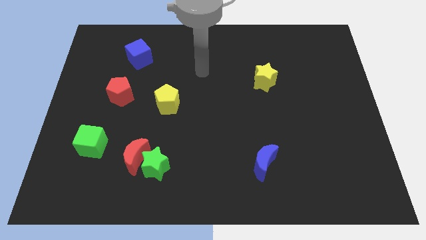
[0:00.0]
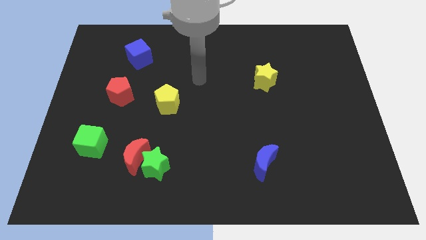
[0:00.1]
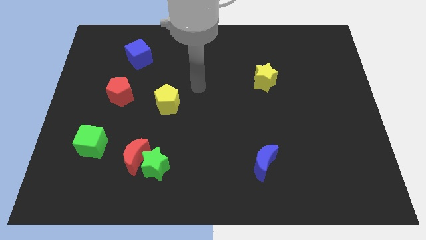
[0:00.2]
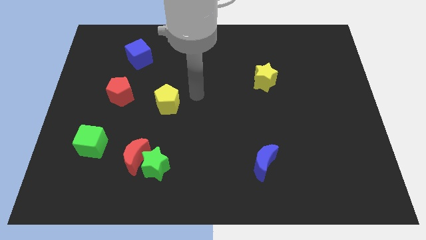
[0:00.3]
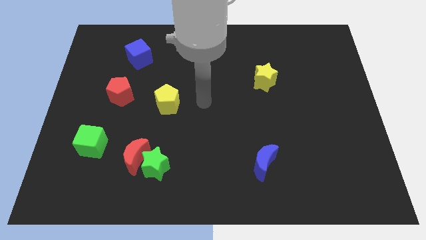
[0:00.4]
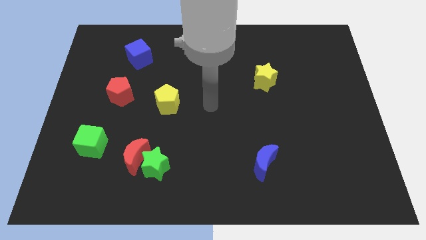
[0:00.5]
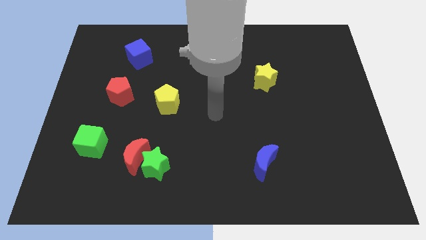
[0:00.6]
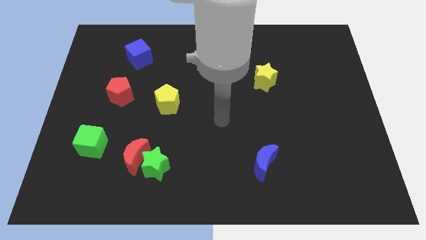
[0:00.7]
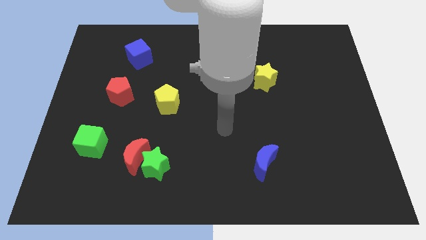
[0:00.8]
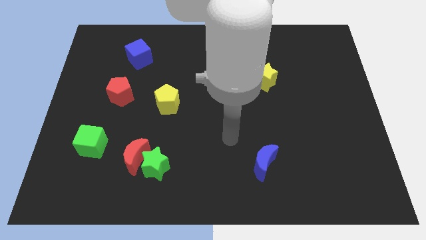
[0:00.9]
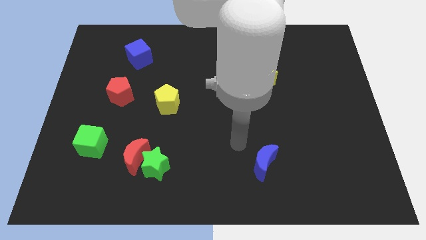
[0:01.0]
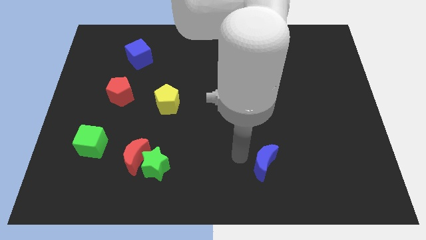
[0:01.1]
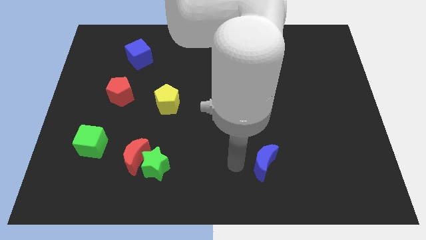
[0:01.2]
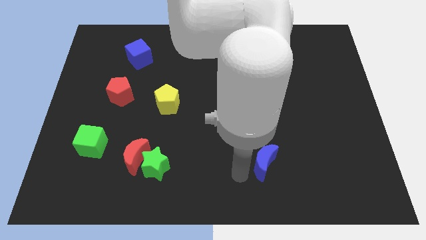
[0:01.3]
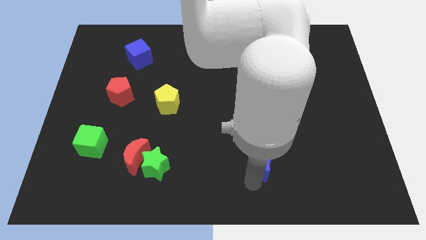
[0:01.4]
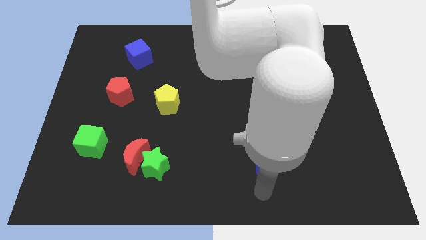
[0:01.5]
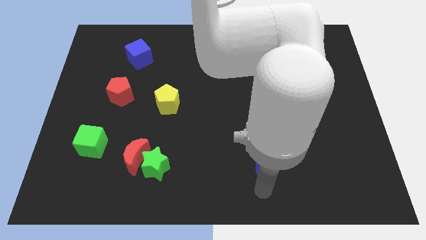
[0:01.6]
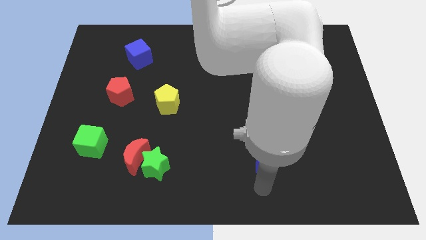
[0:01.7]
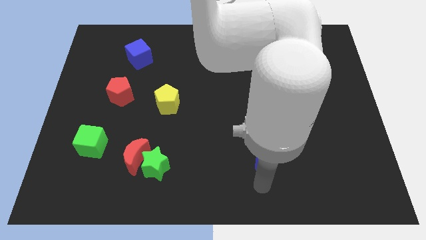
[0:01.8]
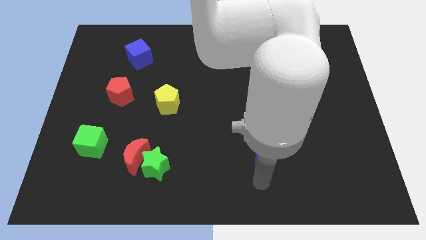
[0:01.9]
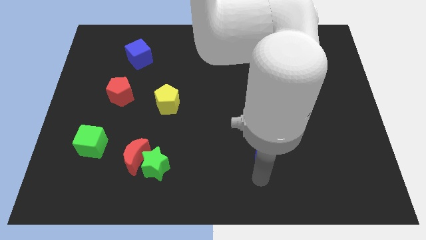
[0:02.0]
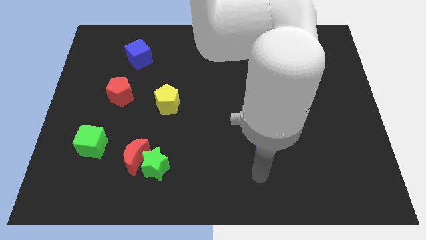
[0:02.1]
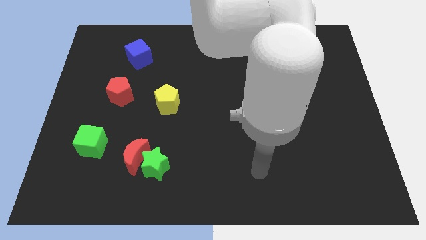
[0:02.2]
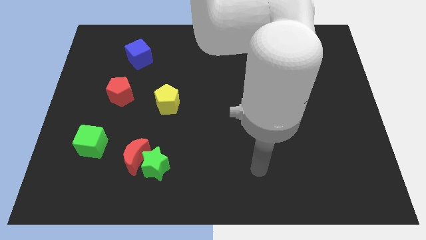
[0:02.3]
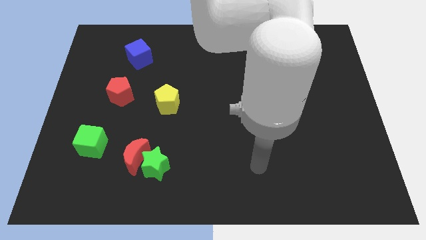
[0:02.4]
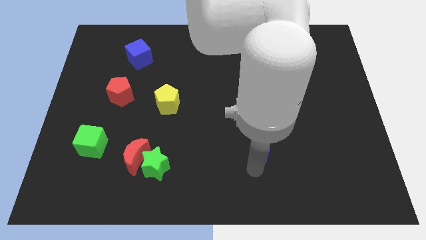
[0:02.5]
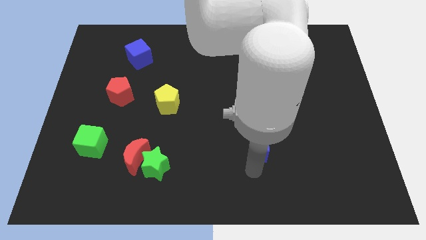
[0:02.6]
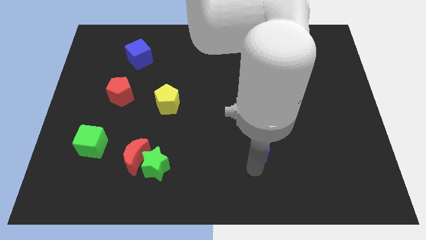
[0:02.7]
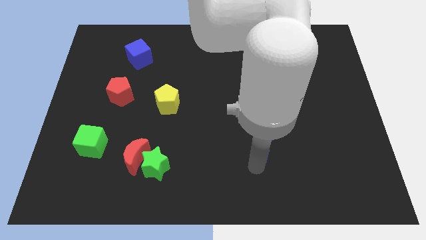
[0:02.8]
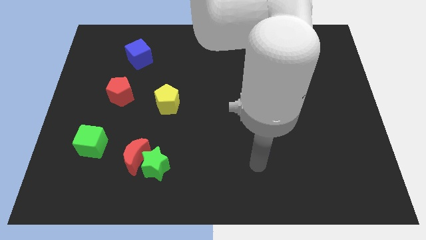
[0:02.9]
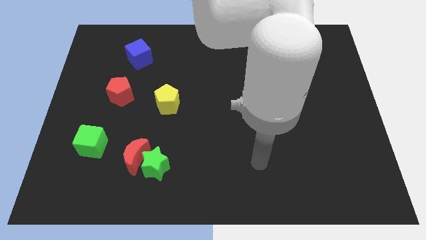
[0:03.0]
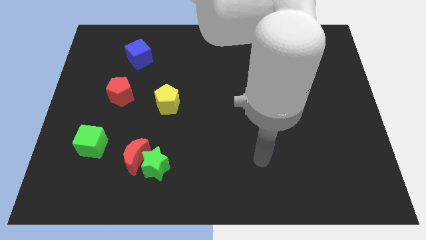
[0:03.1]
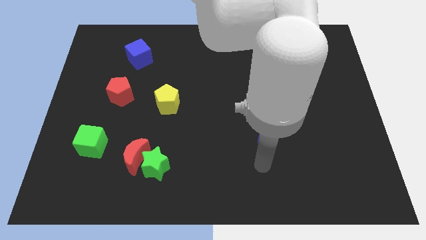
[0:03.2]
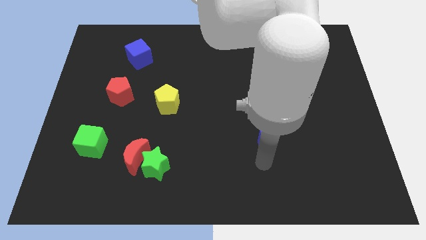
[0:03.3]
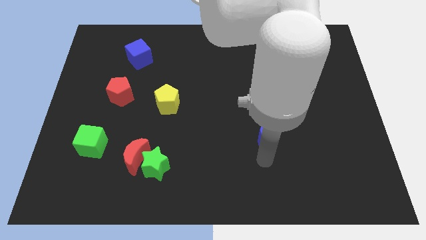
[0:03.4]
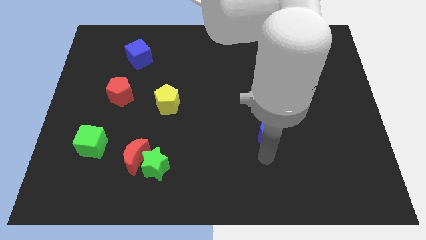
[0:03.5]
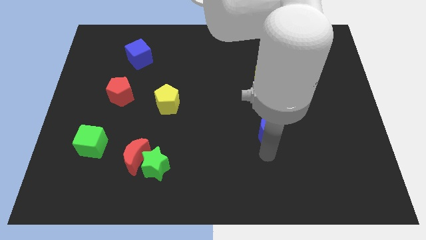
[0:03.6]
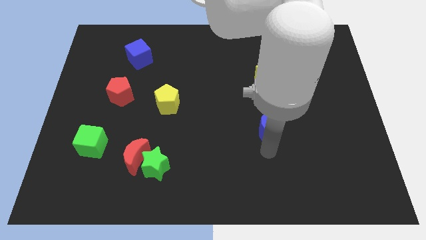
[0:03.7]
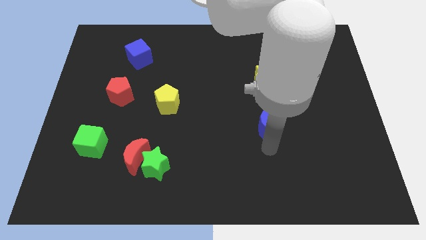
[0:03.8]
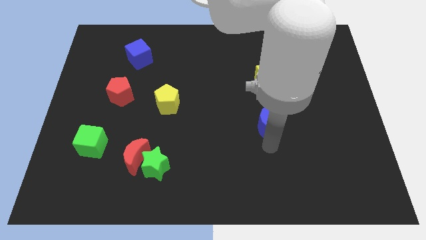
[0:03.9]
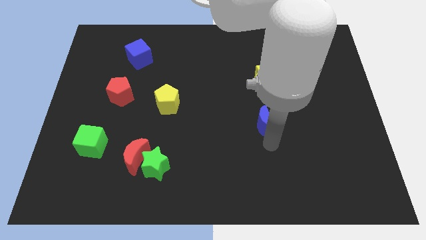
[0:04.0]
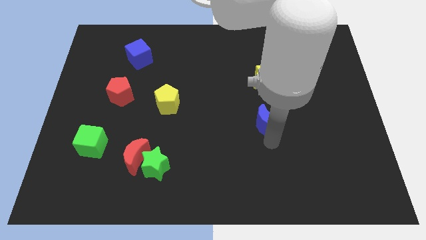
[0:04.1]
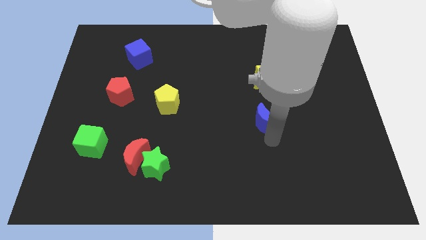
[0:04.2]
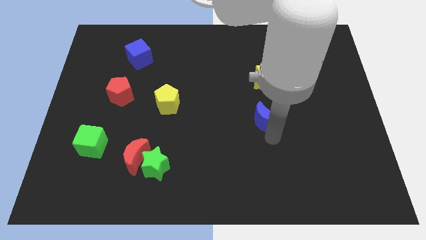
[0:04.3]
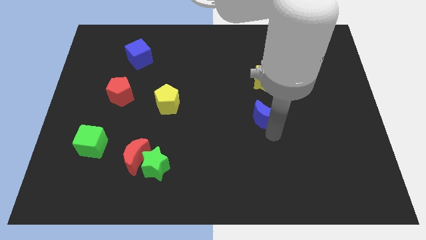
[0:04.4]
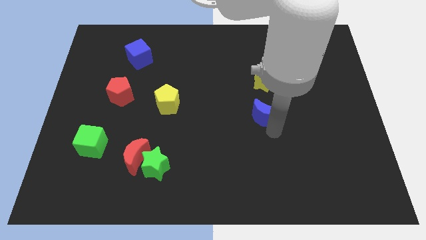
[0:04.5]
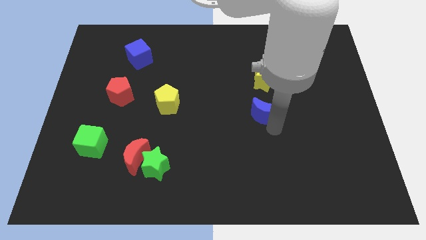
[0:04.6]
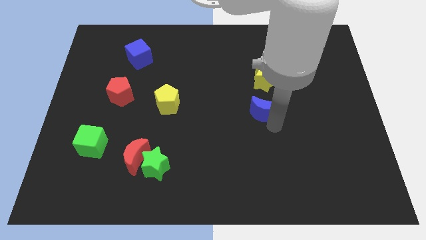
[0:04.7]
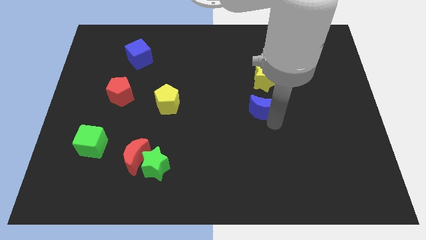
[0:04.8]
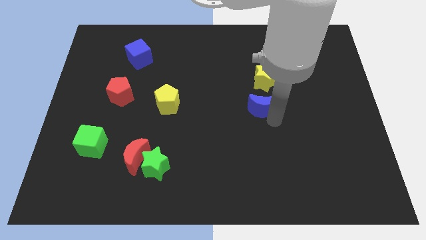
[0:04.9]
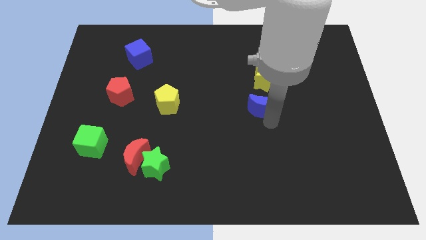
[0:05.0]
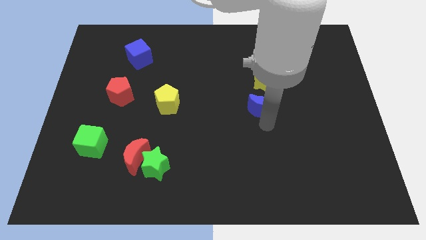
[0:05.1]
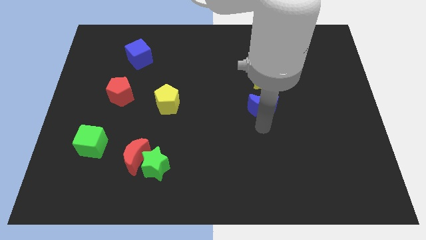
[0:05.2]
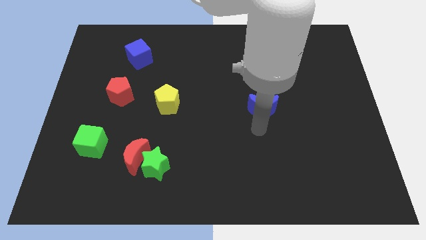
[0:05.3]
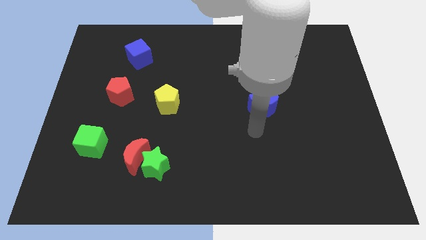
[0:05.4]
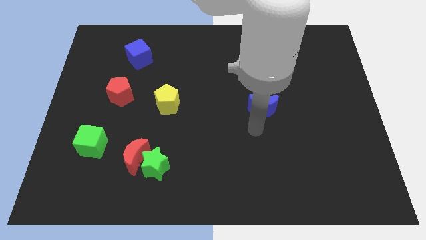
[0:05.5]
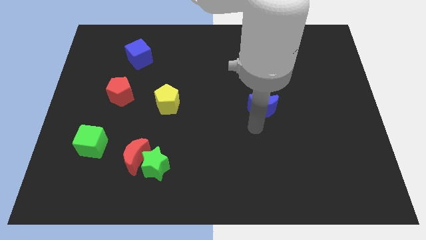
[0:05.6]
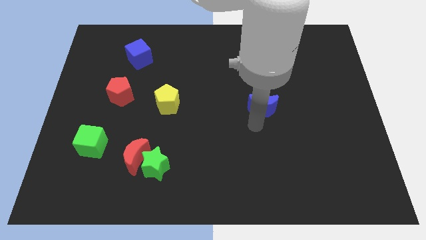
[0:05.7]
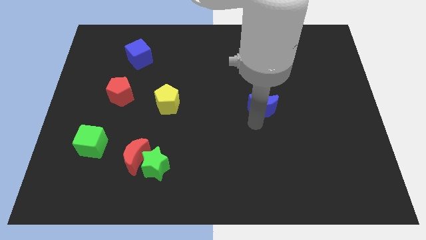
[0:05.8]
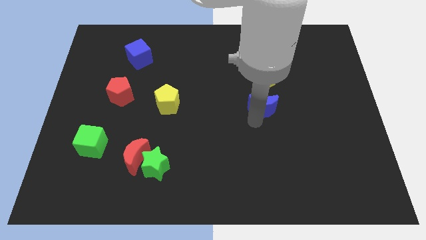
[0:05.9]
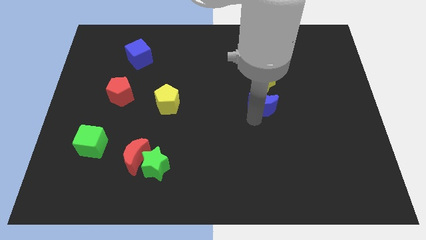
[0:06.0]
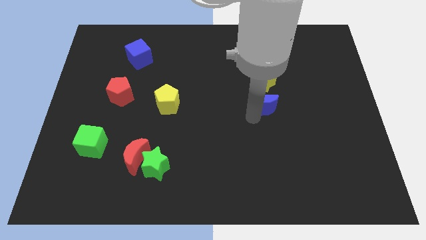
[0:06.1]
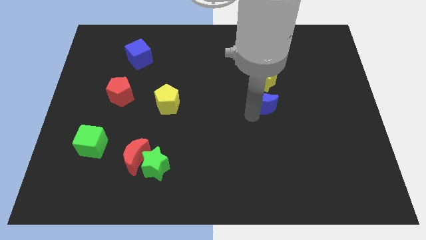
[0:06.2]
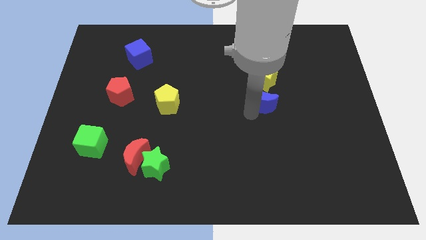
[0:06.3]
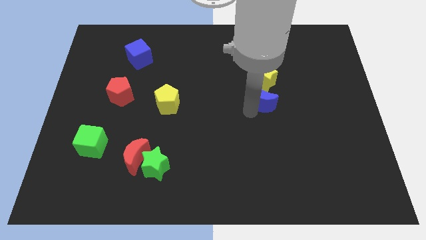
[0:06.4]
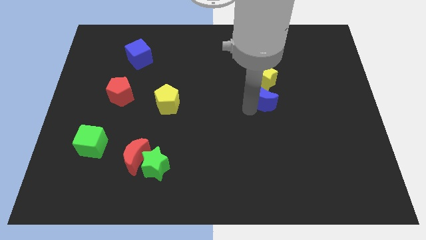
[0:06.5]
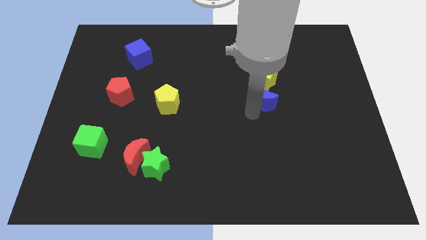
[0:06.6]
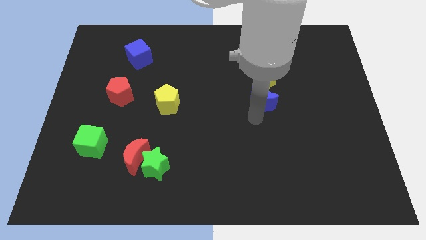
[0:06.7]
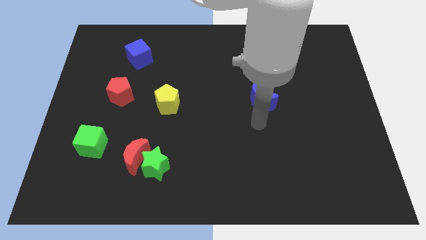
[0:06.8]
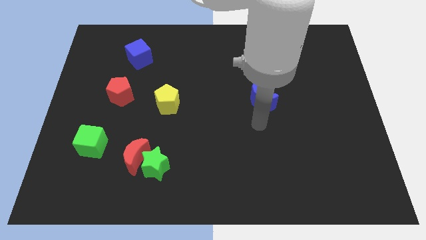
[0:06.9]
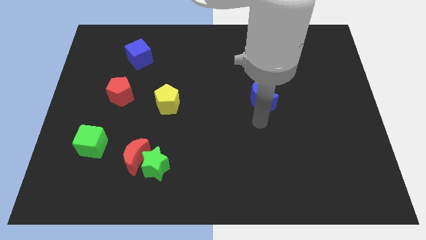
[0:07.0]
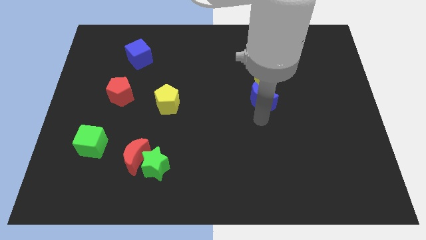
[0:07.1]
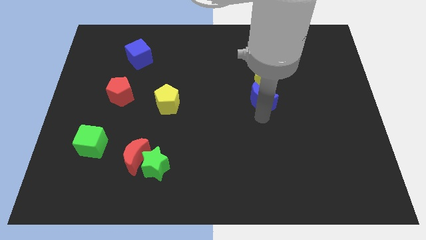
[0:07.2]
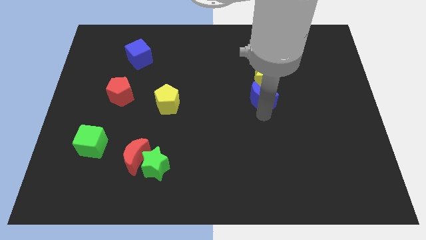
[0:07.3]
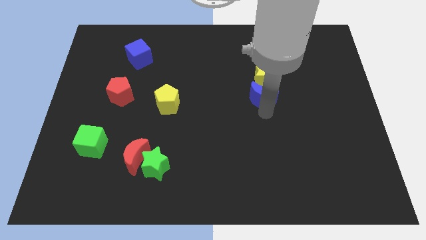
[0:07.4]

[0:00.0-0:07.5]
move the blue moon to the yellow star
